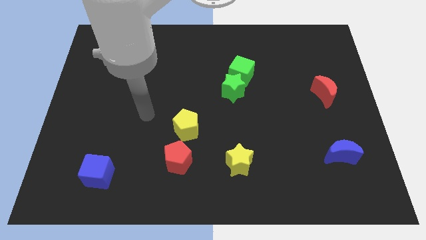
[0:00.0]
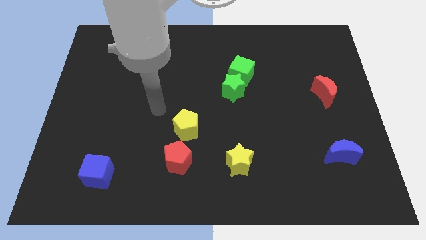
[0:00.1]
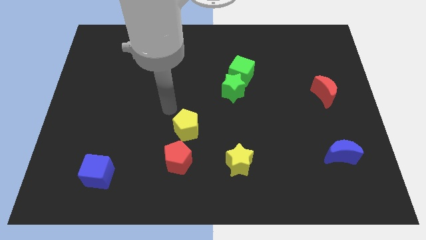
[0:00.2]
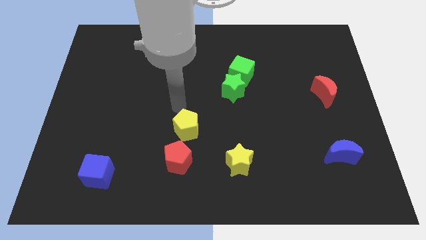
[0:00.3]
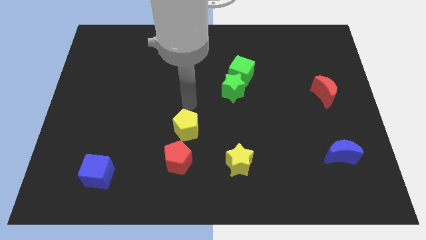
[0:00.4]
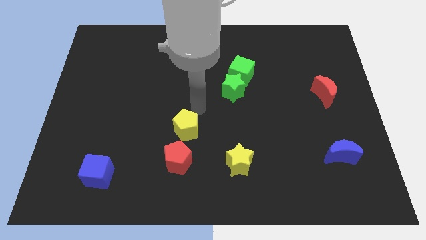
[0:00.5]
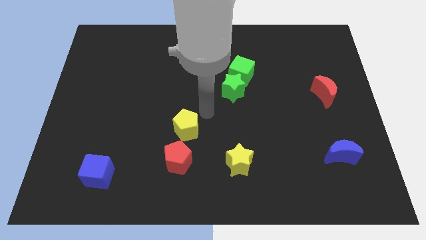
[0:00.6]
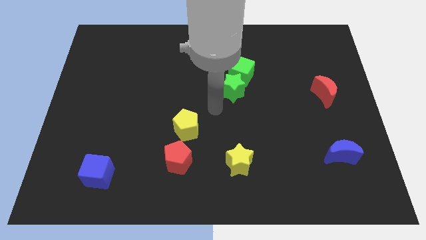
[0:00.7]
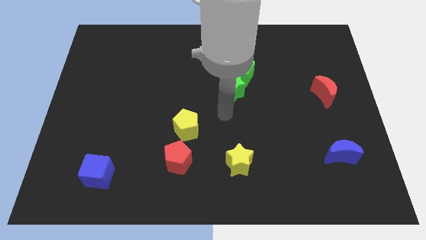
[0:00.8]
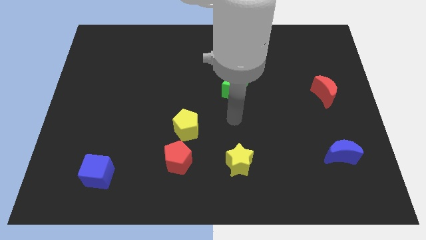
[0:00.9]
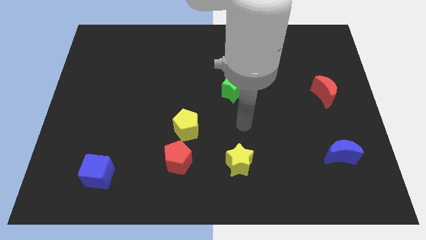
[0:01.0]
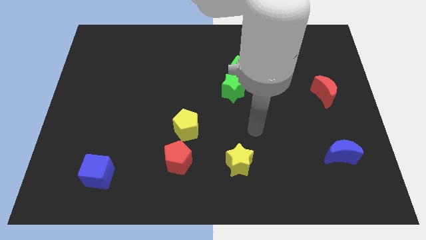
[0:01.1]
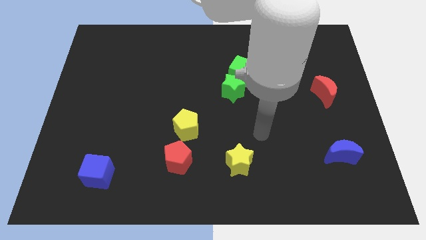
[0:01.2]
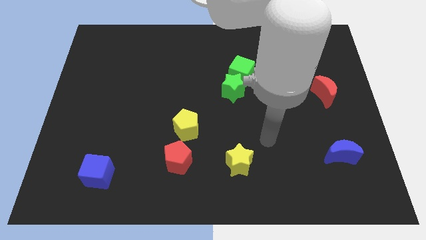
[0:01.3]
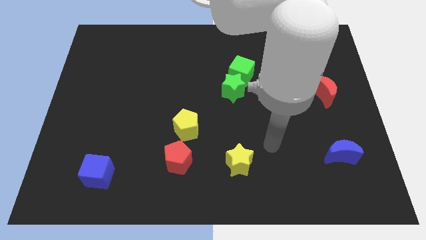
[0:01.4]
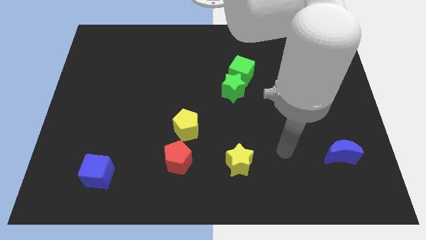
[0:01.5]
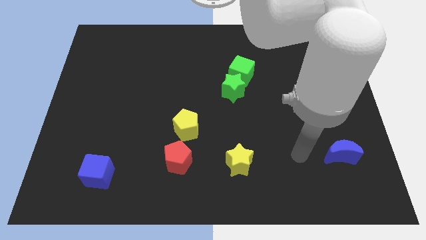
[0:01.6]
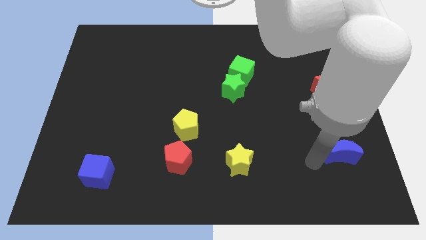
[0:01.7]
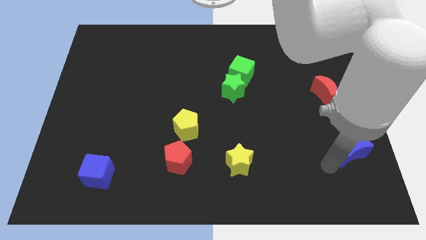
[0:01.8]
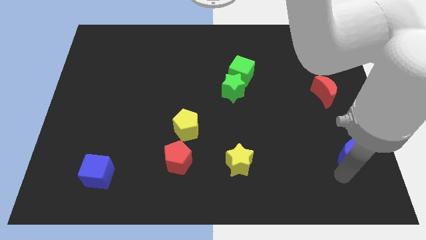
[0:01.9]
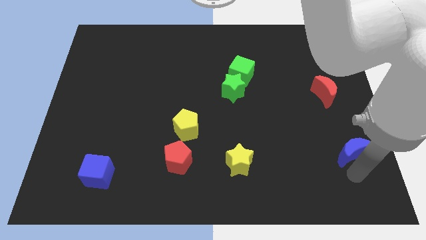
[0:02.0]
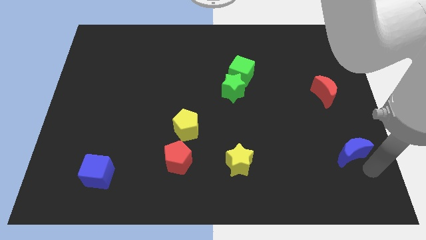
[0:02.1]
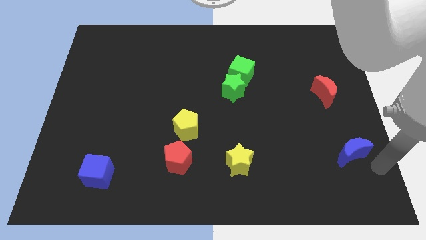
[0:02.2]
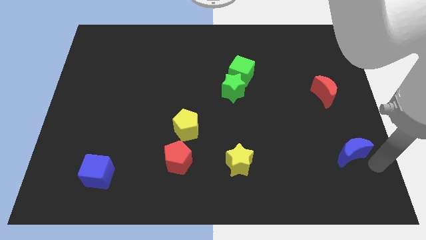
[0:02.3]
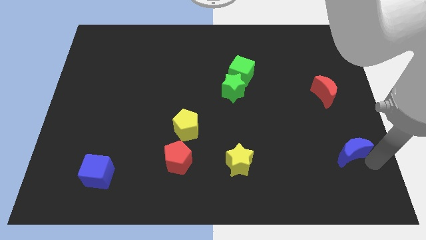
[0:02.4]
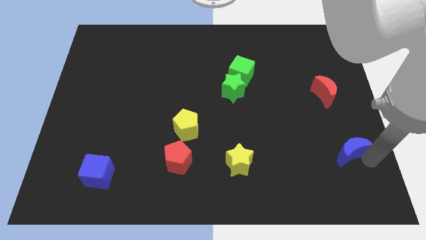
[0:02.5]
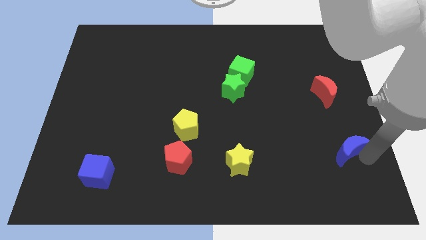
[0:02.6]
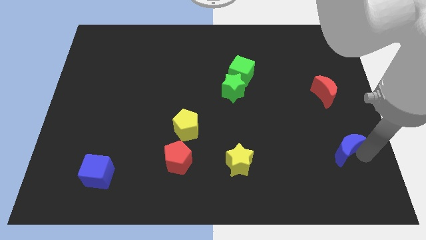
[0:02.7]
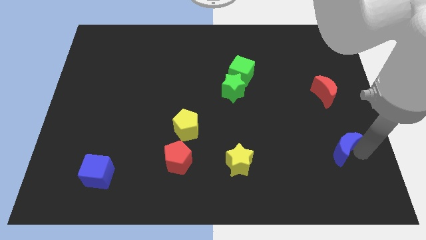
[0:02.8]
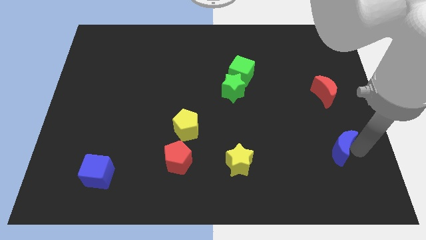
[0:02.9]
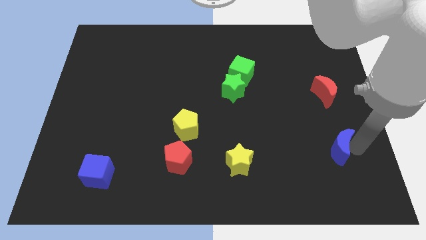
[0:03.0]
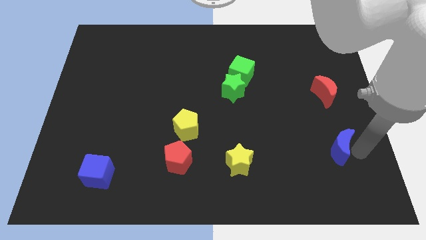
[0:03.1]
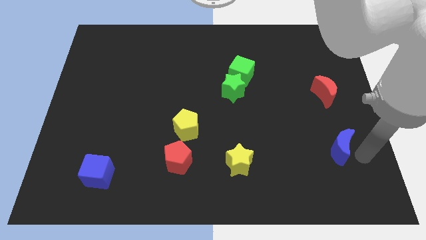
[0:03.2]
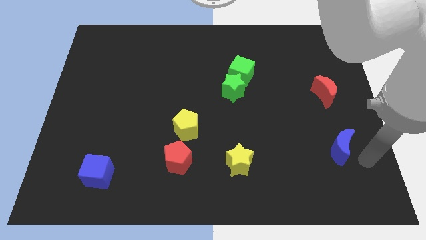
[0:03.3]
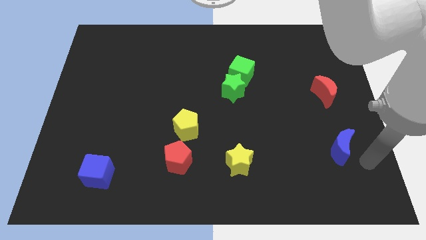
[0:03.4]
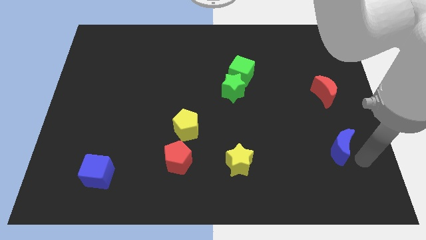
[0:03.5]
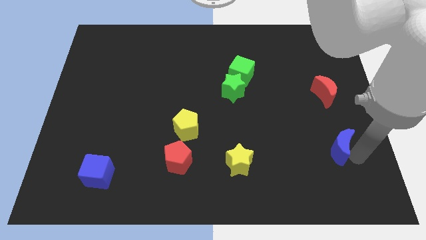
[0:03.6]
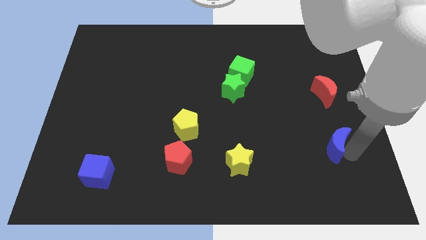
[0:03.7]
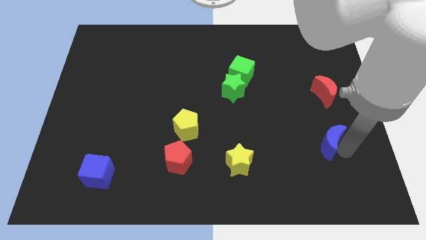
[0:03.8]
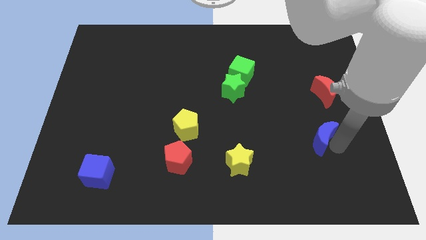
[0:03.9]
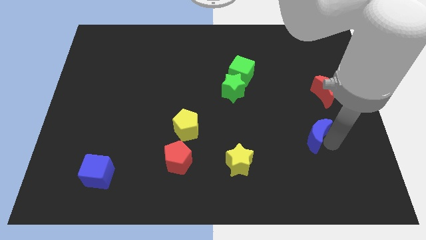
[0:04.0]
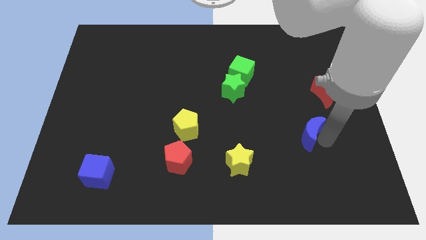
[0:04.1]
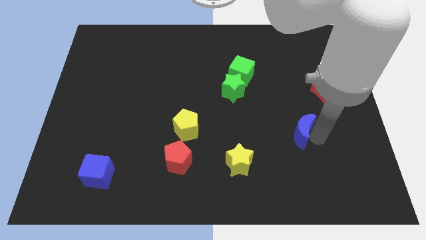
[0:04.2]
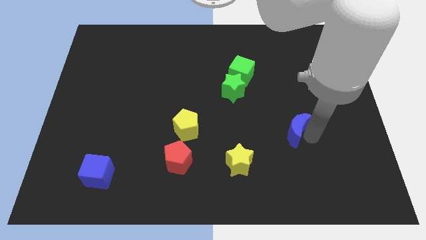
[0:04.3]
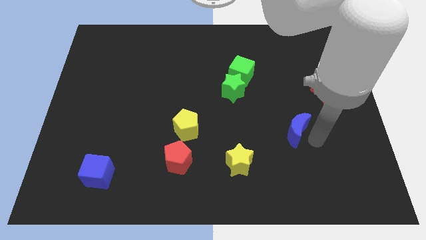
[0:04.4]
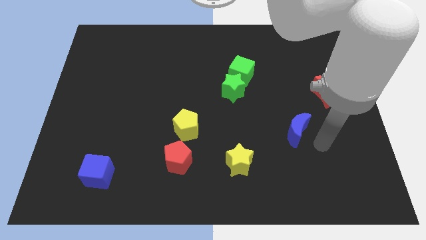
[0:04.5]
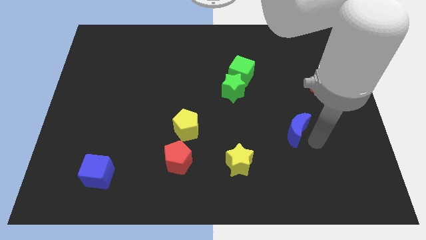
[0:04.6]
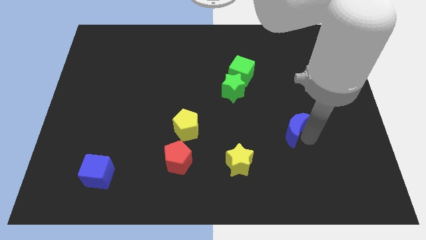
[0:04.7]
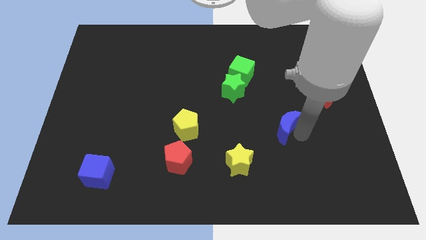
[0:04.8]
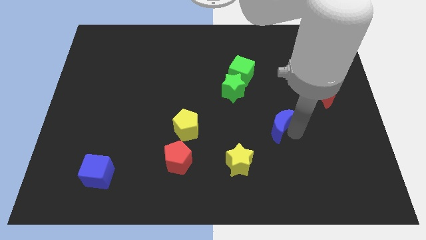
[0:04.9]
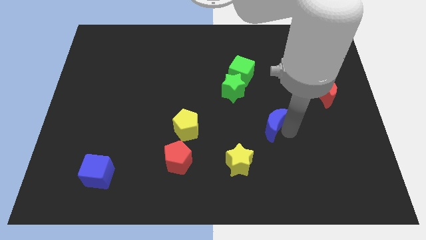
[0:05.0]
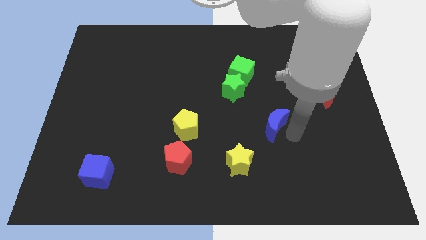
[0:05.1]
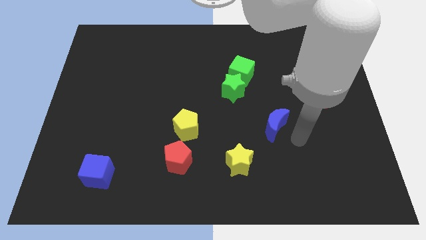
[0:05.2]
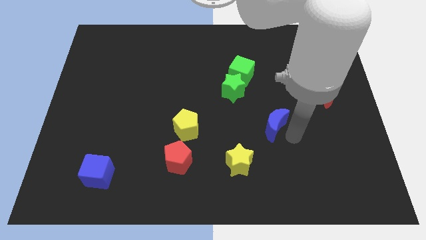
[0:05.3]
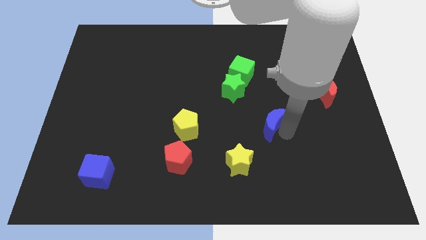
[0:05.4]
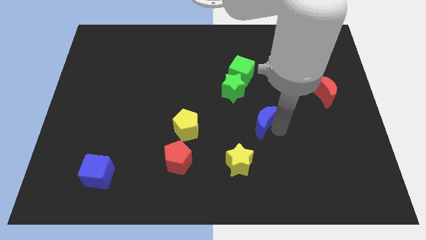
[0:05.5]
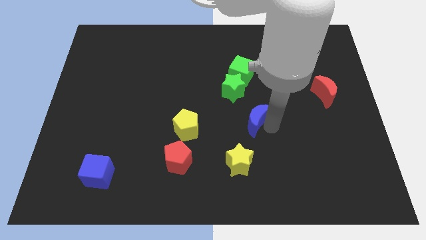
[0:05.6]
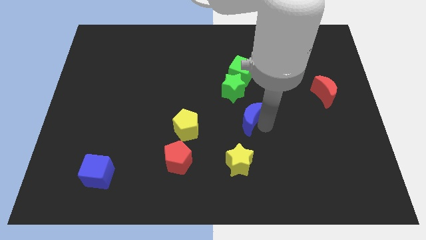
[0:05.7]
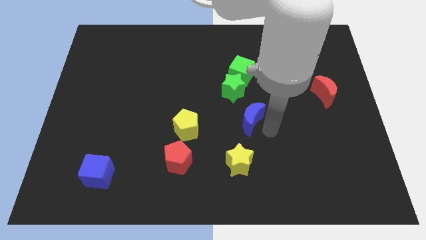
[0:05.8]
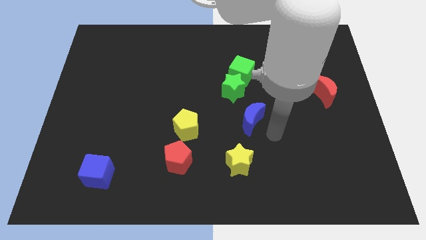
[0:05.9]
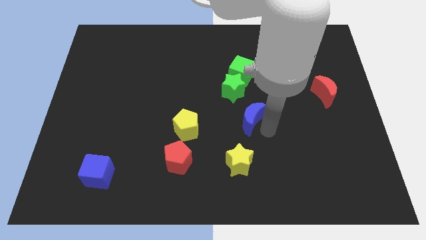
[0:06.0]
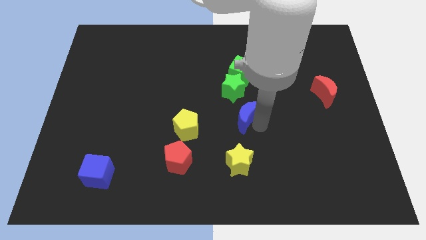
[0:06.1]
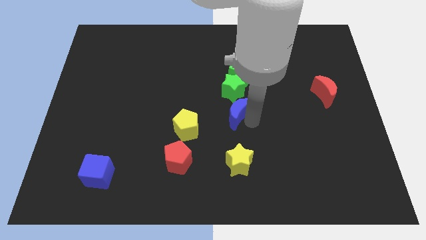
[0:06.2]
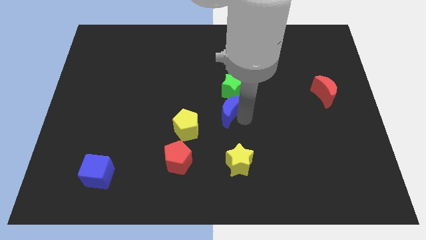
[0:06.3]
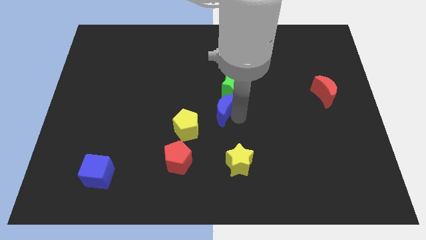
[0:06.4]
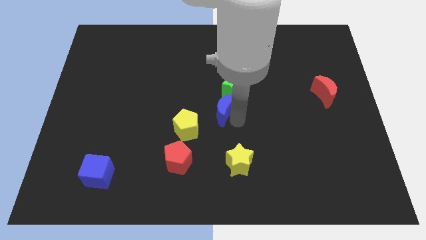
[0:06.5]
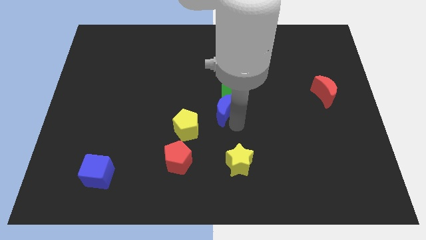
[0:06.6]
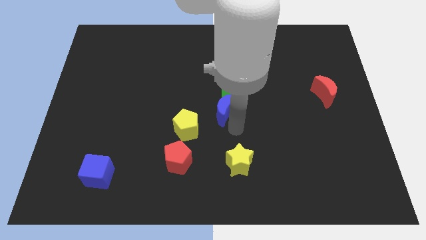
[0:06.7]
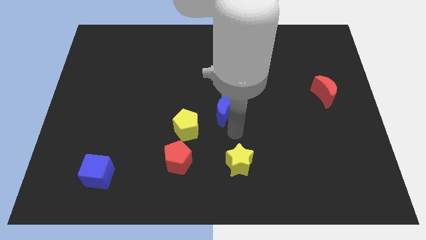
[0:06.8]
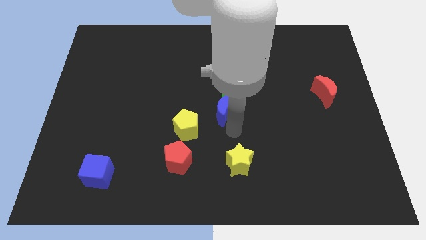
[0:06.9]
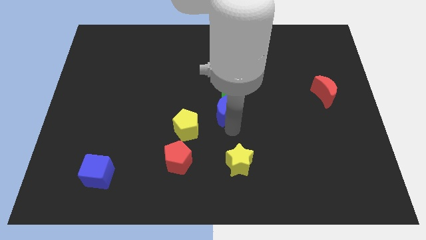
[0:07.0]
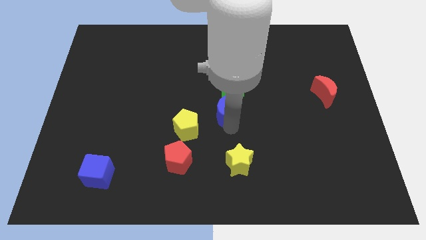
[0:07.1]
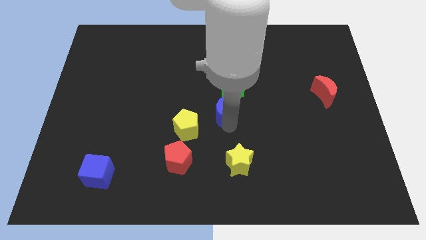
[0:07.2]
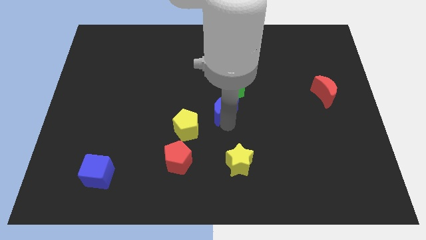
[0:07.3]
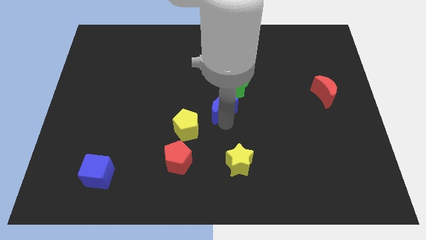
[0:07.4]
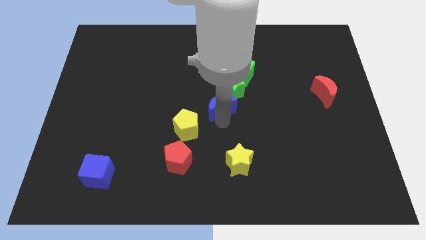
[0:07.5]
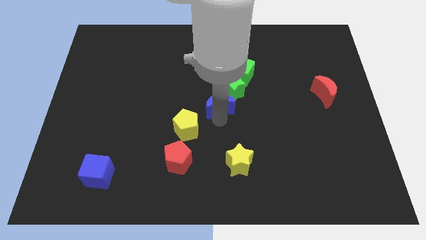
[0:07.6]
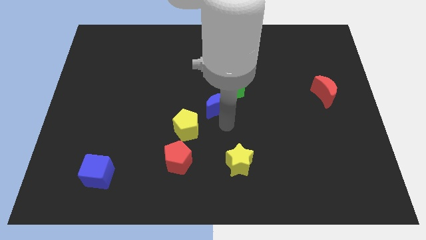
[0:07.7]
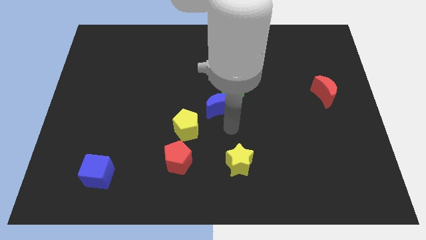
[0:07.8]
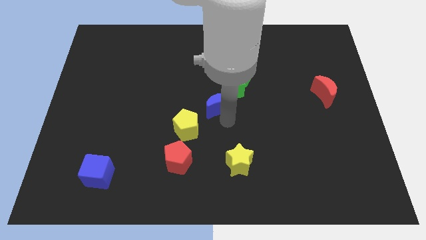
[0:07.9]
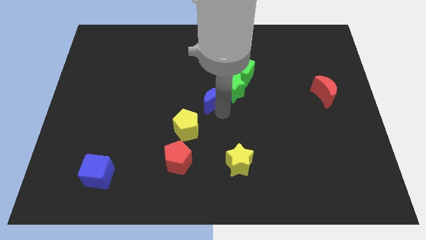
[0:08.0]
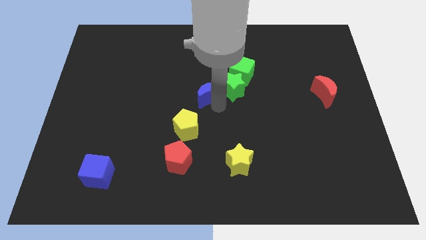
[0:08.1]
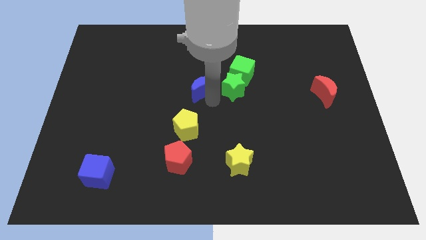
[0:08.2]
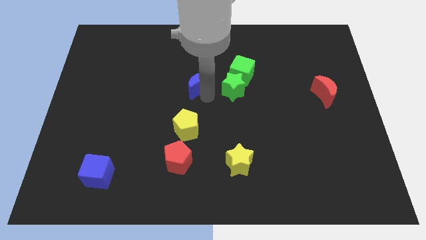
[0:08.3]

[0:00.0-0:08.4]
slide the blue moon just left of the green cube
